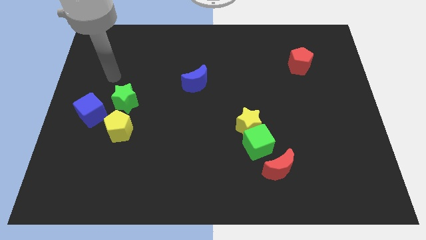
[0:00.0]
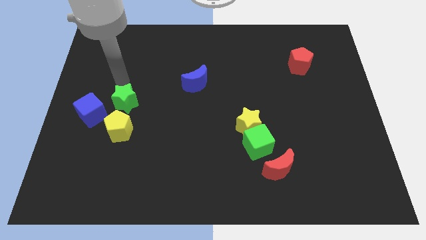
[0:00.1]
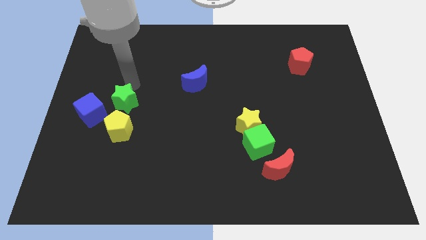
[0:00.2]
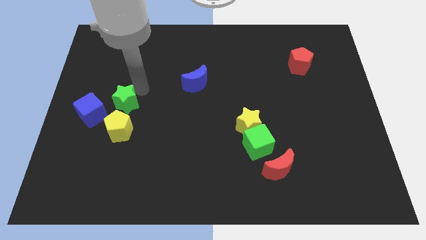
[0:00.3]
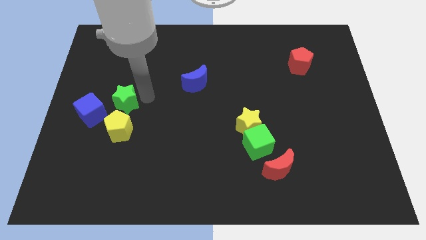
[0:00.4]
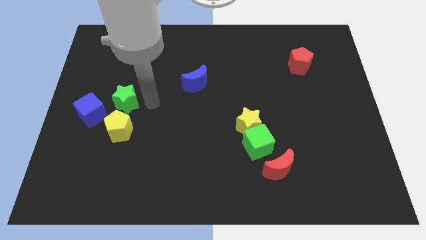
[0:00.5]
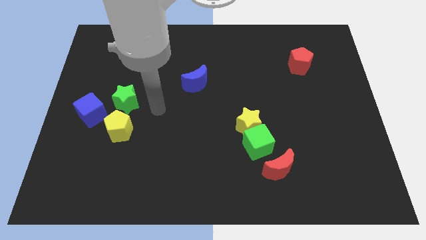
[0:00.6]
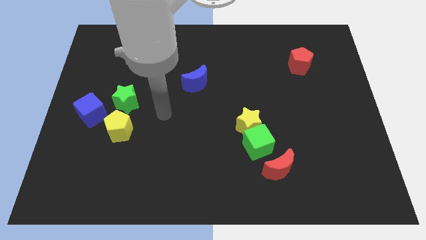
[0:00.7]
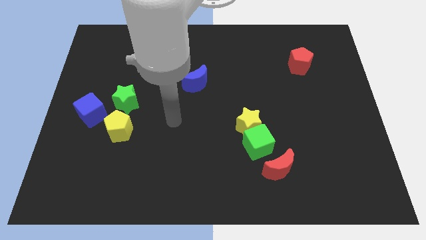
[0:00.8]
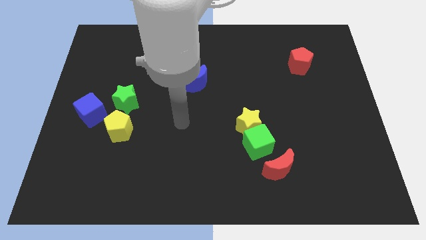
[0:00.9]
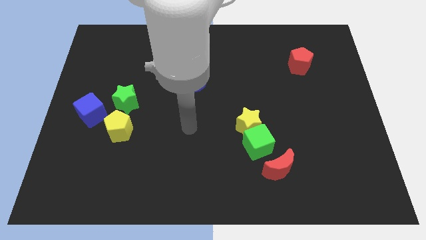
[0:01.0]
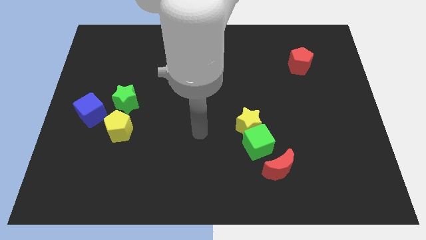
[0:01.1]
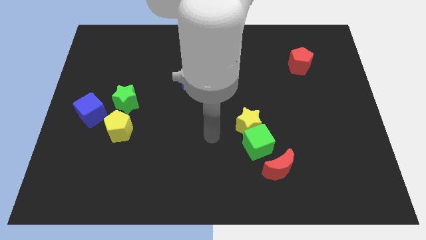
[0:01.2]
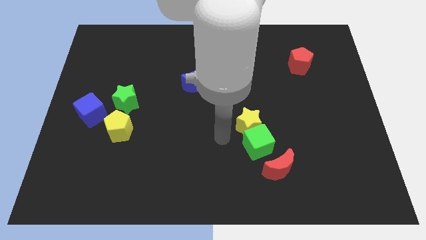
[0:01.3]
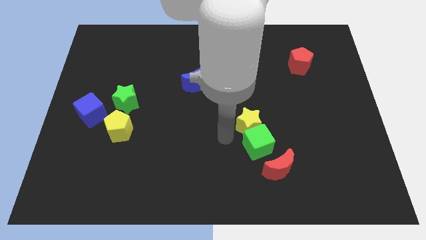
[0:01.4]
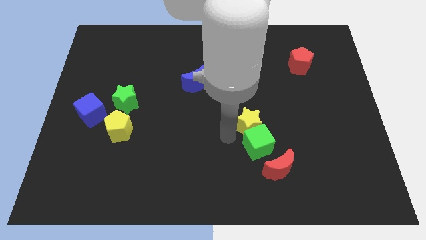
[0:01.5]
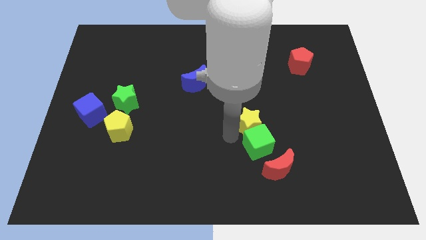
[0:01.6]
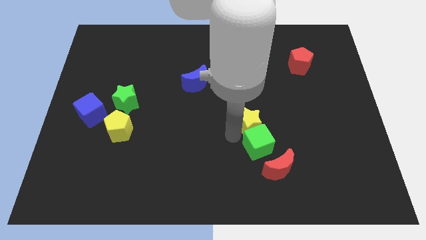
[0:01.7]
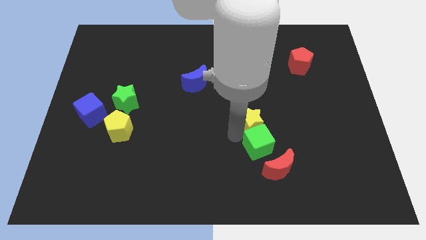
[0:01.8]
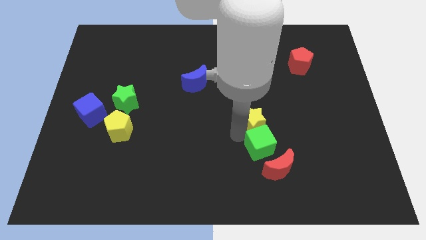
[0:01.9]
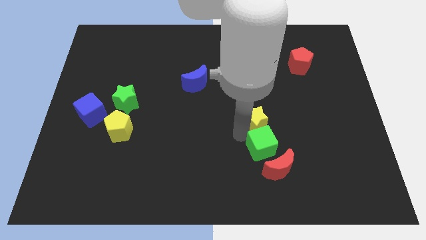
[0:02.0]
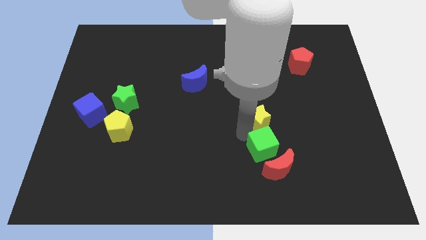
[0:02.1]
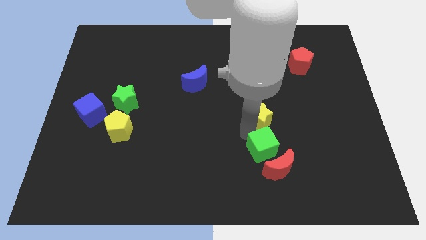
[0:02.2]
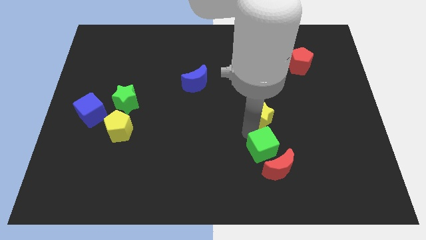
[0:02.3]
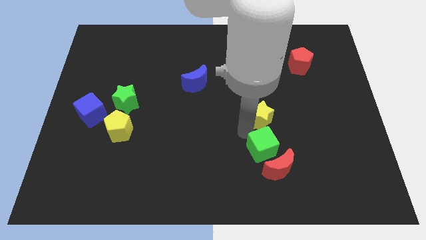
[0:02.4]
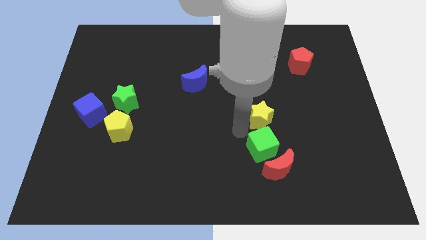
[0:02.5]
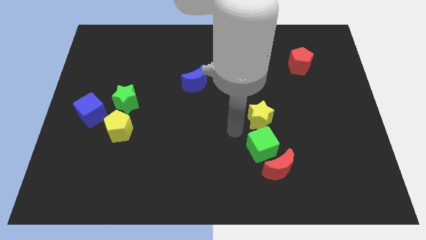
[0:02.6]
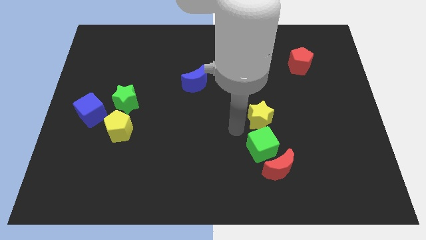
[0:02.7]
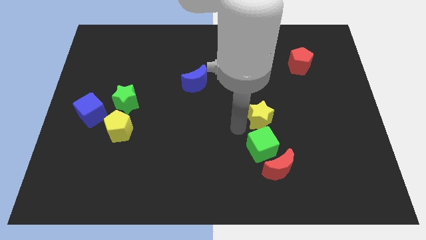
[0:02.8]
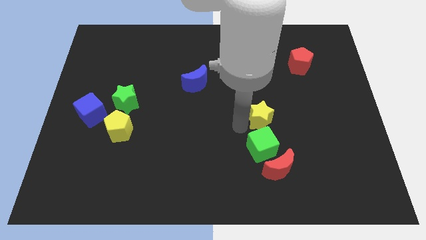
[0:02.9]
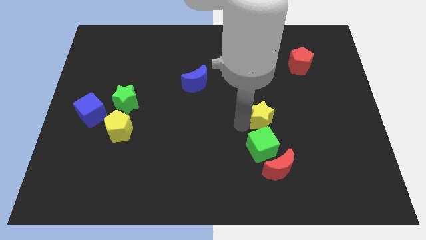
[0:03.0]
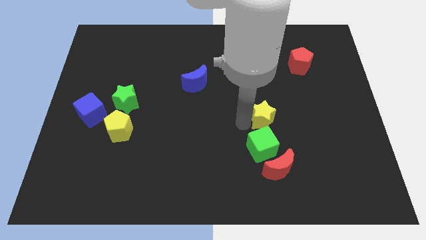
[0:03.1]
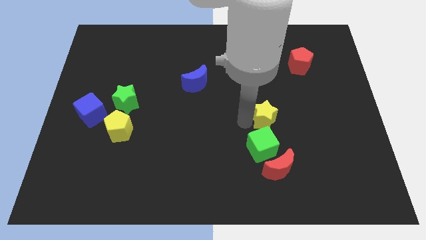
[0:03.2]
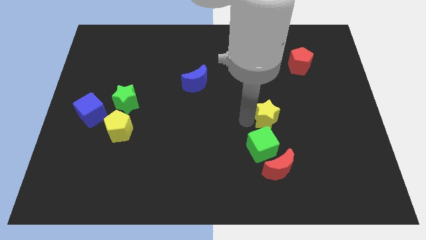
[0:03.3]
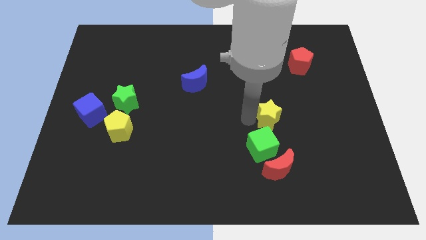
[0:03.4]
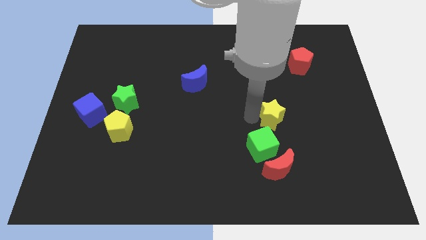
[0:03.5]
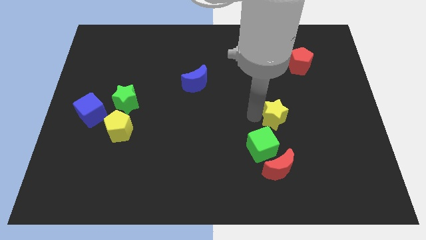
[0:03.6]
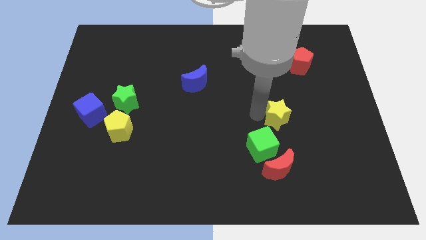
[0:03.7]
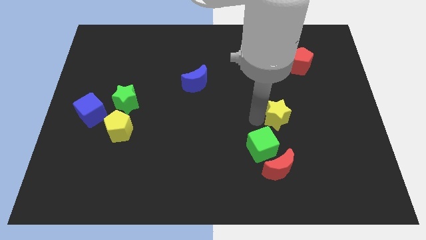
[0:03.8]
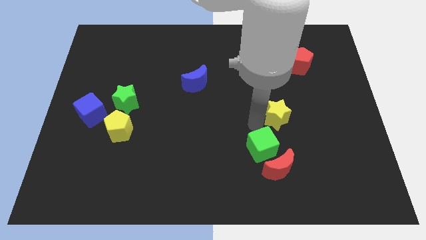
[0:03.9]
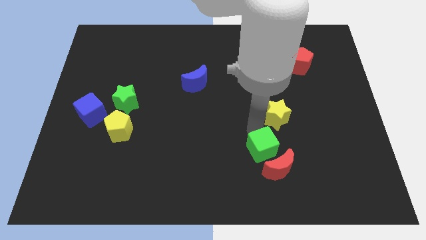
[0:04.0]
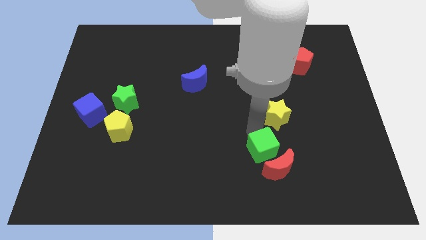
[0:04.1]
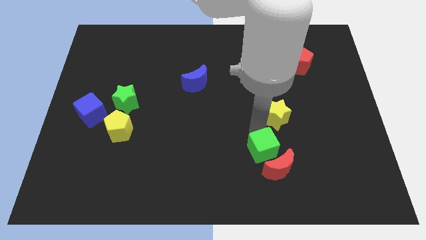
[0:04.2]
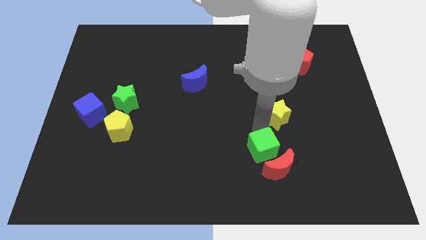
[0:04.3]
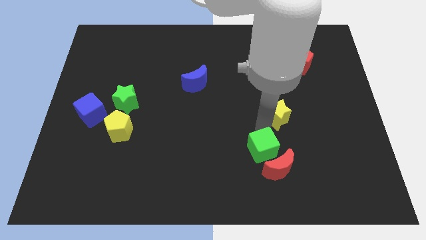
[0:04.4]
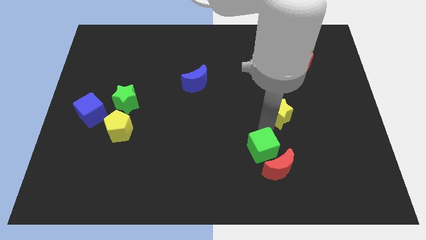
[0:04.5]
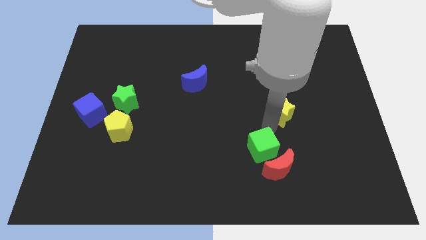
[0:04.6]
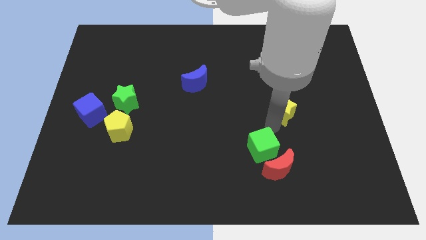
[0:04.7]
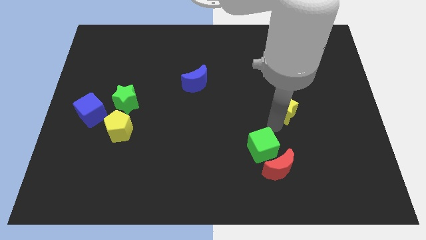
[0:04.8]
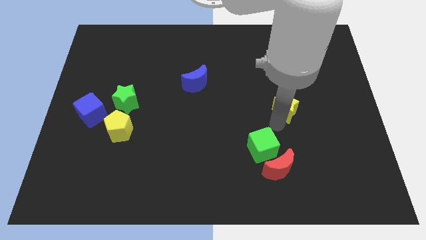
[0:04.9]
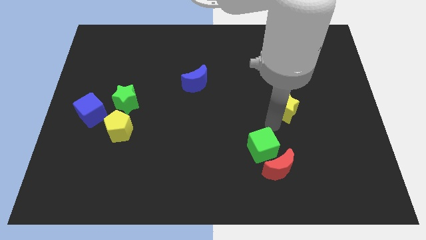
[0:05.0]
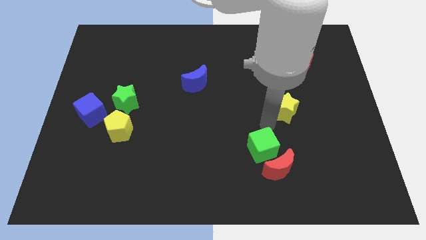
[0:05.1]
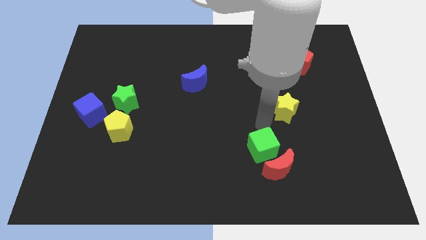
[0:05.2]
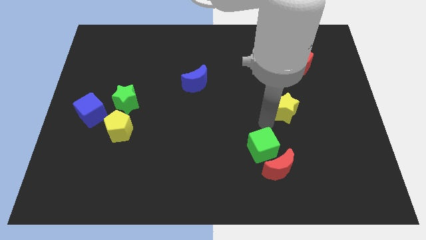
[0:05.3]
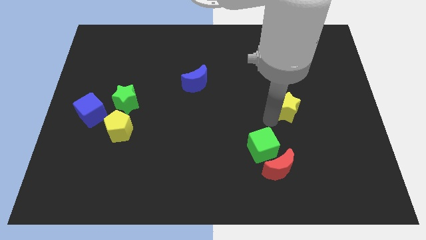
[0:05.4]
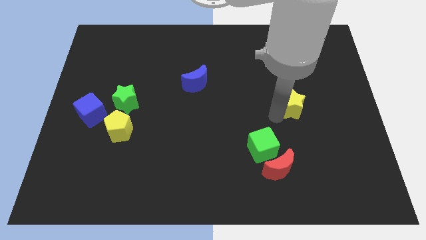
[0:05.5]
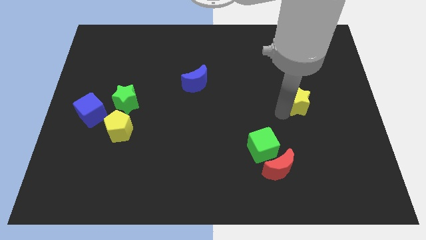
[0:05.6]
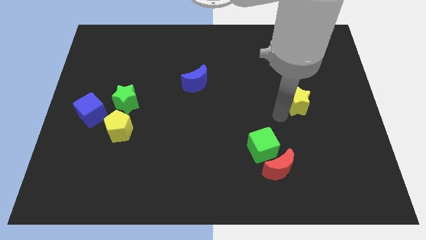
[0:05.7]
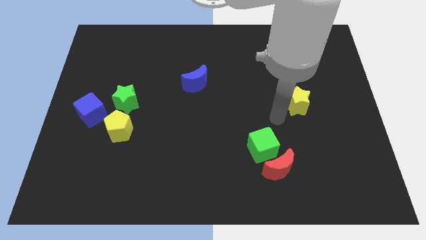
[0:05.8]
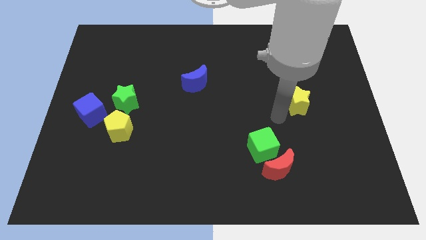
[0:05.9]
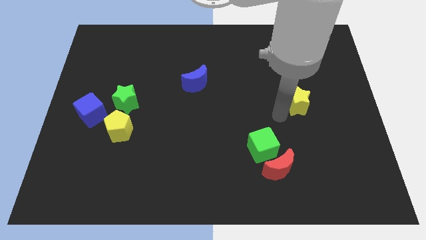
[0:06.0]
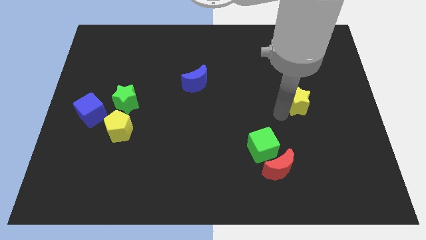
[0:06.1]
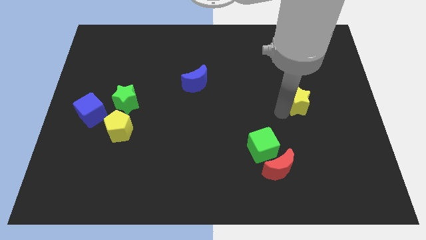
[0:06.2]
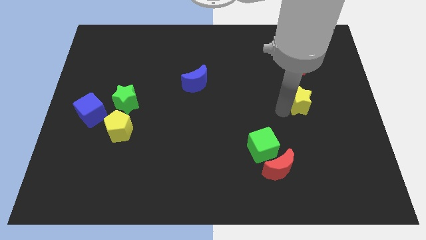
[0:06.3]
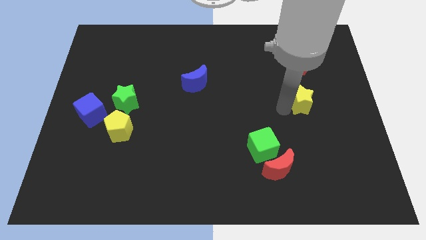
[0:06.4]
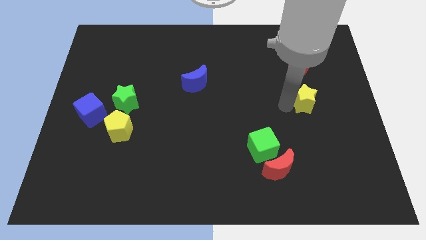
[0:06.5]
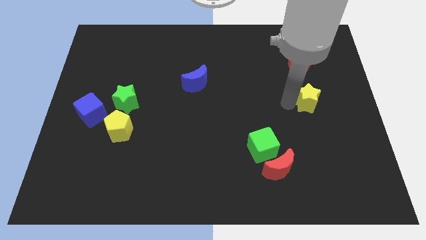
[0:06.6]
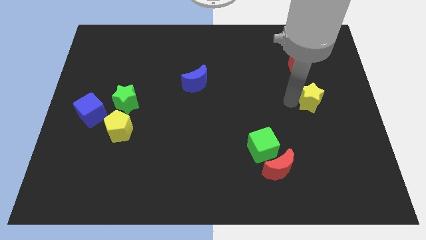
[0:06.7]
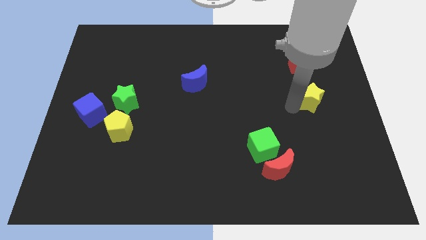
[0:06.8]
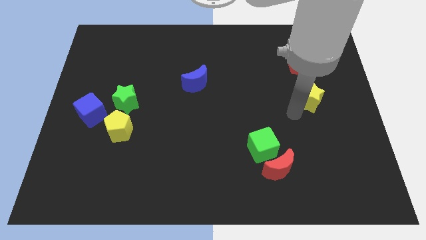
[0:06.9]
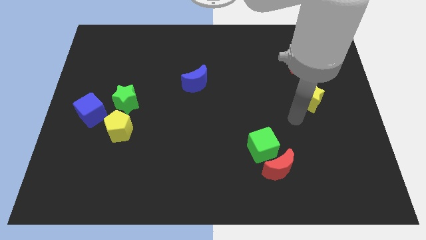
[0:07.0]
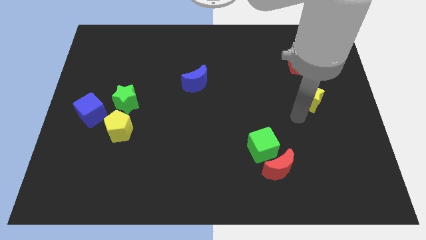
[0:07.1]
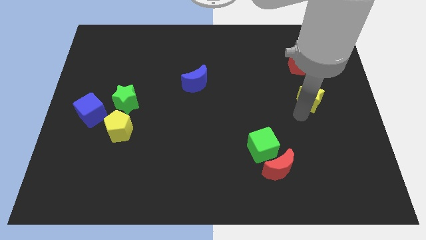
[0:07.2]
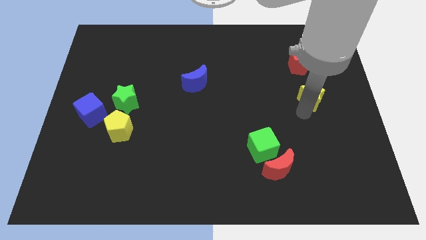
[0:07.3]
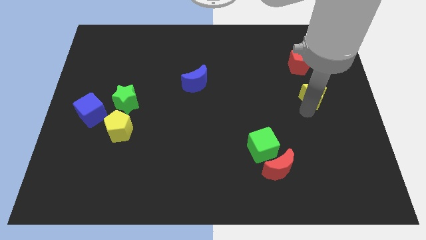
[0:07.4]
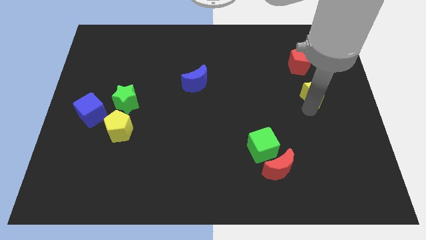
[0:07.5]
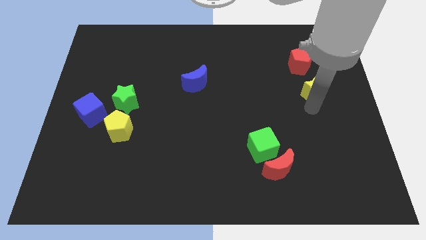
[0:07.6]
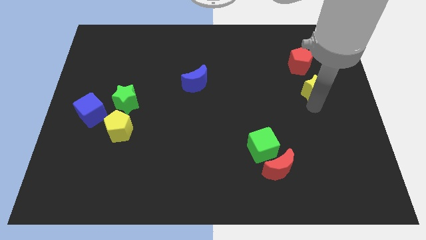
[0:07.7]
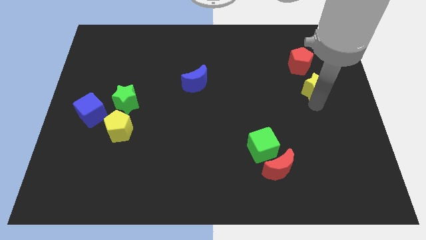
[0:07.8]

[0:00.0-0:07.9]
push the yellow star diagonally down and to the right of the red pentagon
